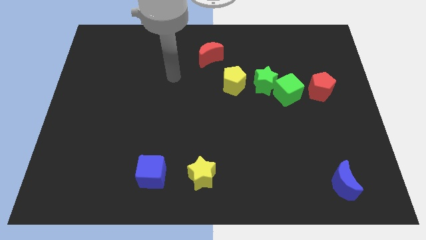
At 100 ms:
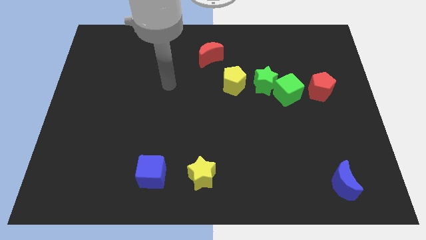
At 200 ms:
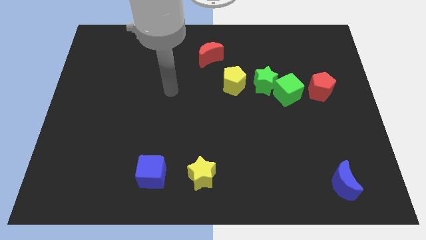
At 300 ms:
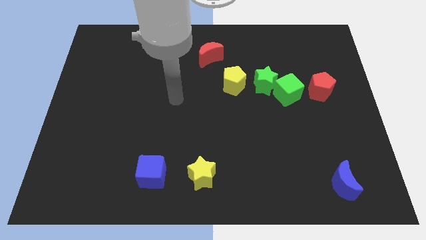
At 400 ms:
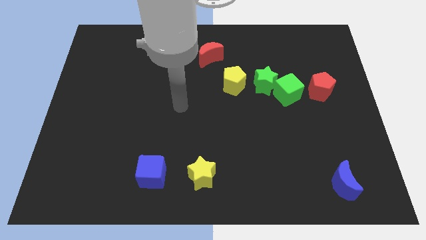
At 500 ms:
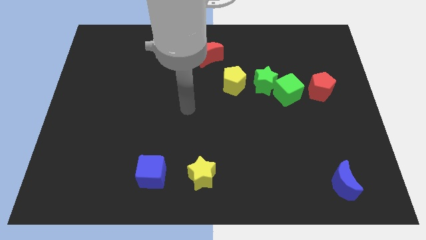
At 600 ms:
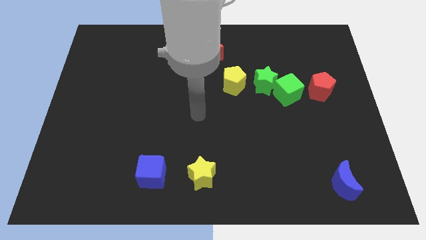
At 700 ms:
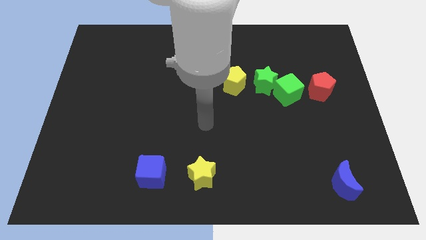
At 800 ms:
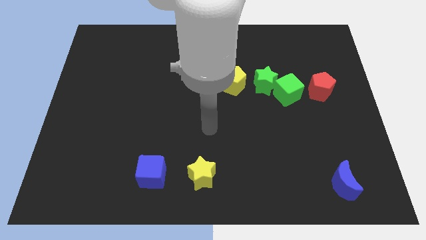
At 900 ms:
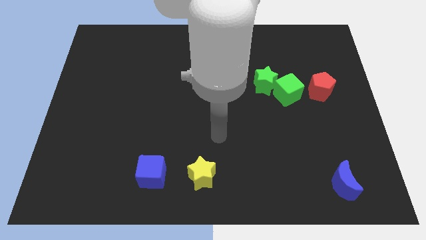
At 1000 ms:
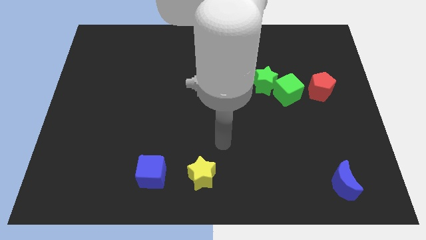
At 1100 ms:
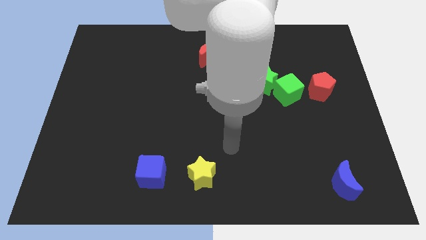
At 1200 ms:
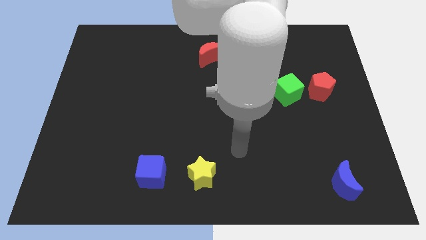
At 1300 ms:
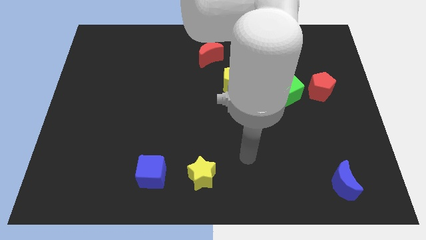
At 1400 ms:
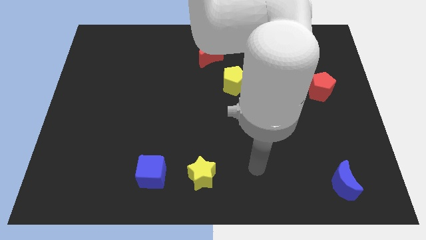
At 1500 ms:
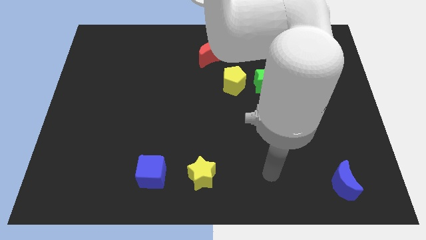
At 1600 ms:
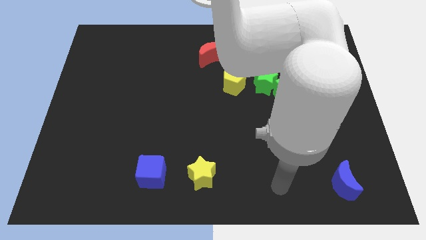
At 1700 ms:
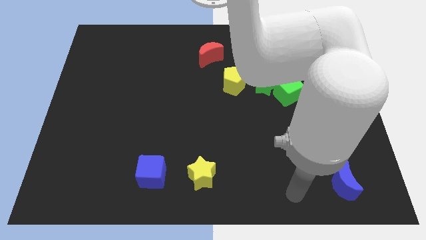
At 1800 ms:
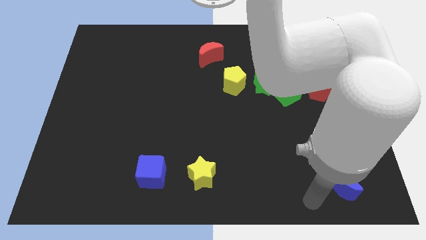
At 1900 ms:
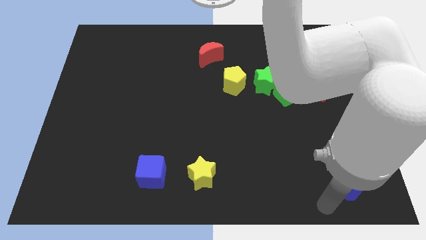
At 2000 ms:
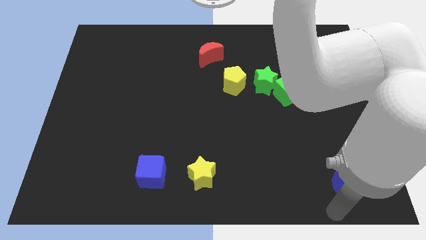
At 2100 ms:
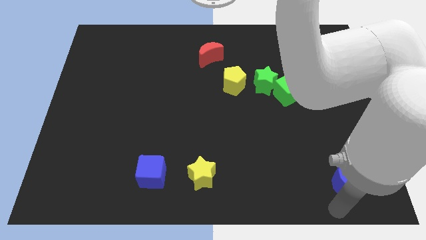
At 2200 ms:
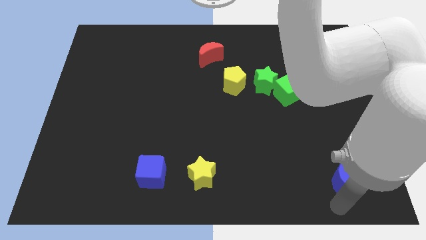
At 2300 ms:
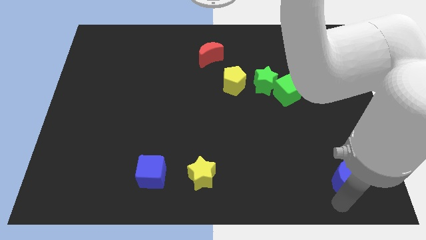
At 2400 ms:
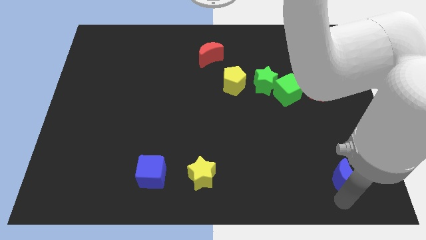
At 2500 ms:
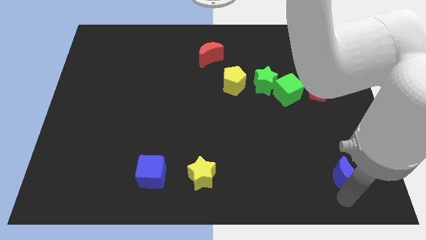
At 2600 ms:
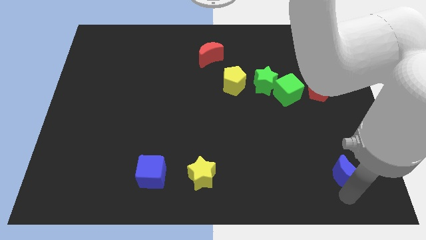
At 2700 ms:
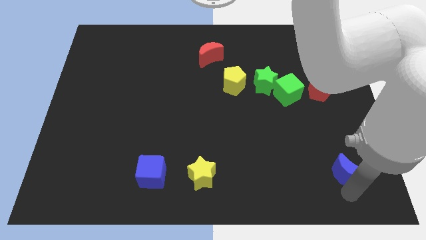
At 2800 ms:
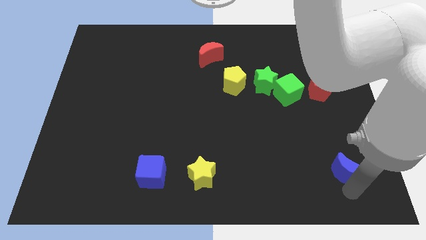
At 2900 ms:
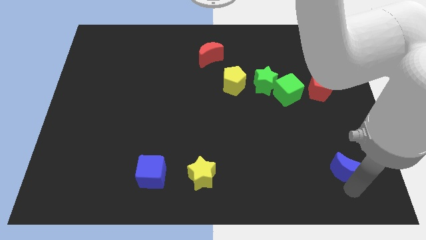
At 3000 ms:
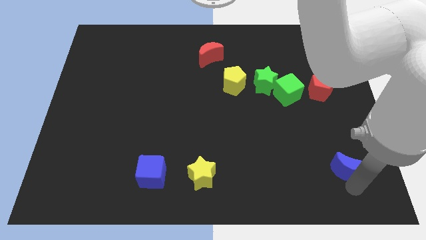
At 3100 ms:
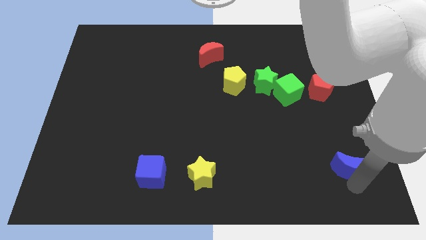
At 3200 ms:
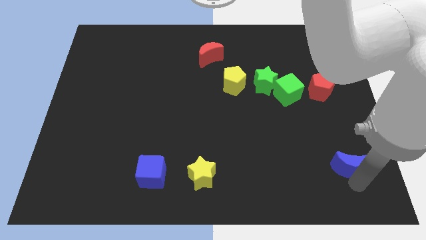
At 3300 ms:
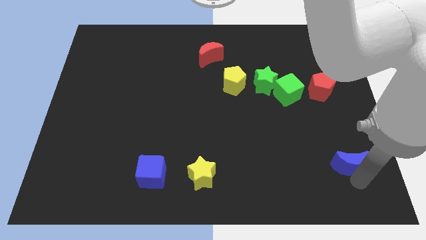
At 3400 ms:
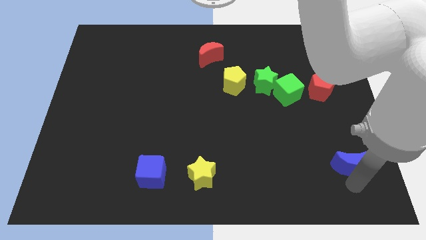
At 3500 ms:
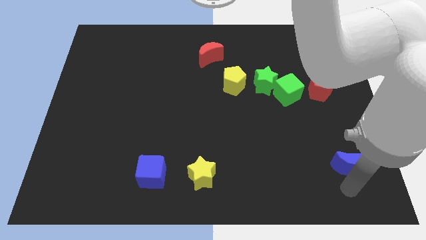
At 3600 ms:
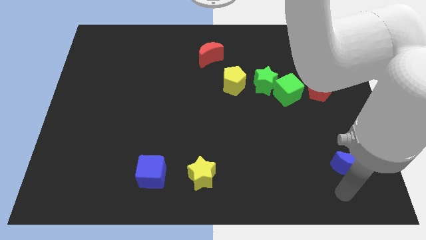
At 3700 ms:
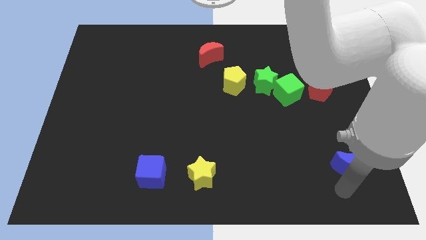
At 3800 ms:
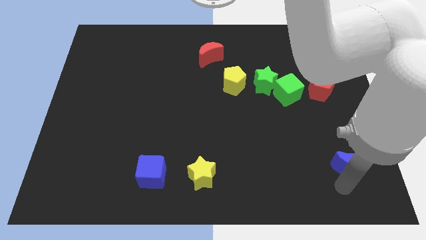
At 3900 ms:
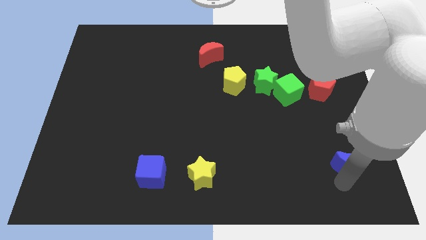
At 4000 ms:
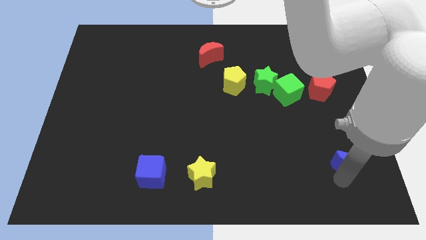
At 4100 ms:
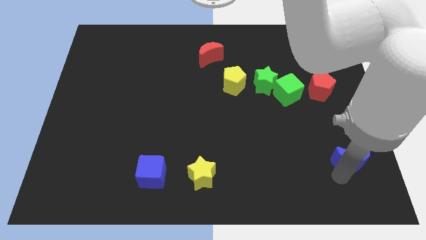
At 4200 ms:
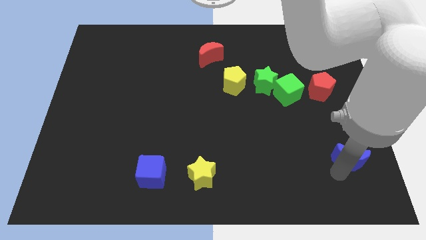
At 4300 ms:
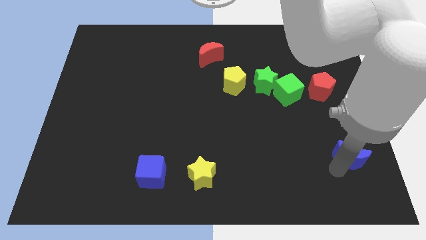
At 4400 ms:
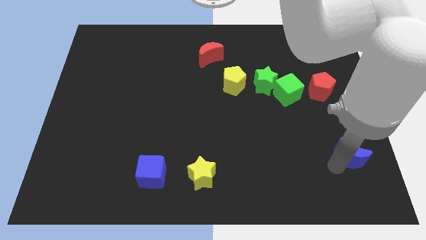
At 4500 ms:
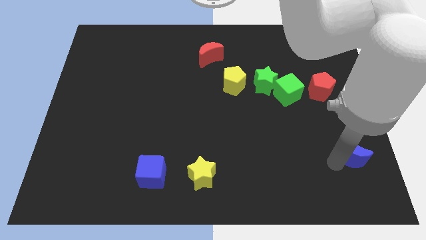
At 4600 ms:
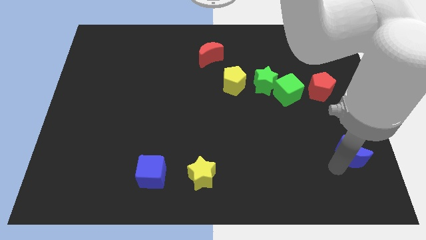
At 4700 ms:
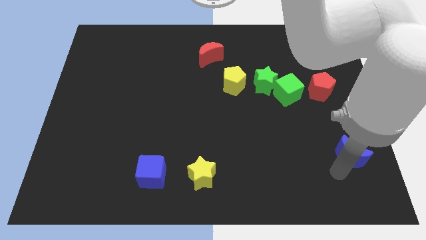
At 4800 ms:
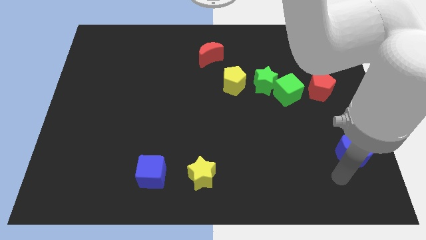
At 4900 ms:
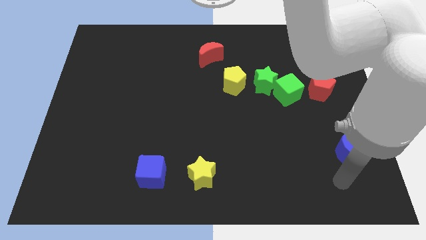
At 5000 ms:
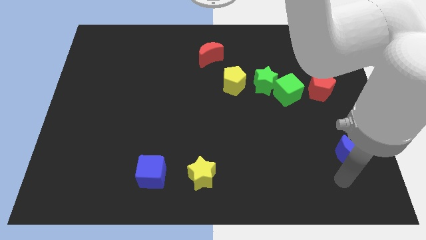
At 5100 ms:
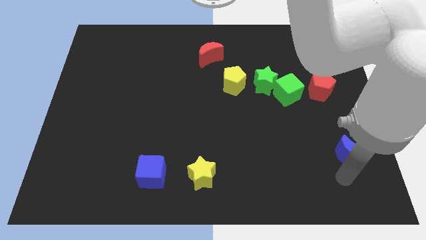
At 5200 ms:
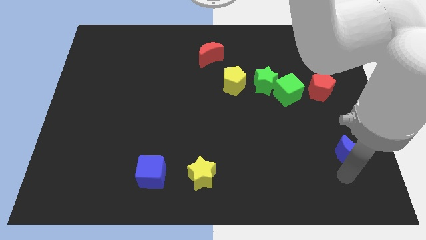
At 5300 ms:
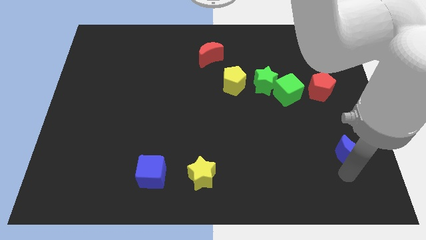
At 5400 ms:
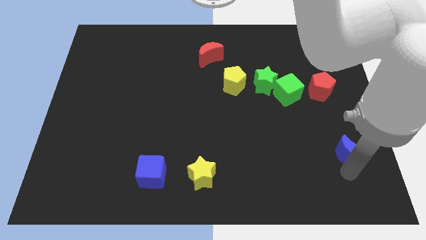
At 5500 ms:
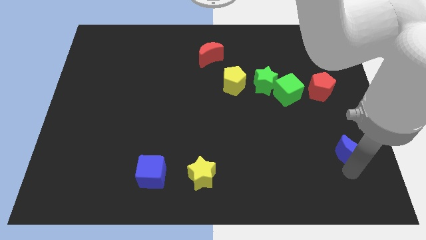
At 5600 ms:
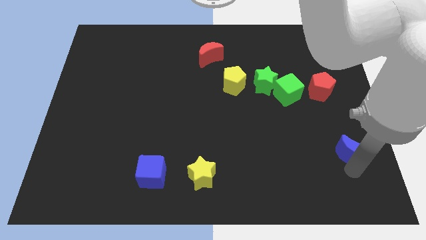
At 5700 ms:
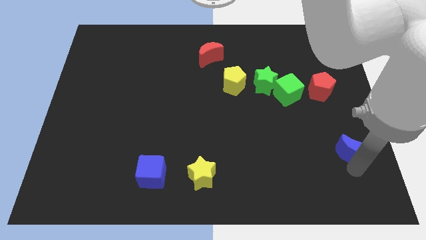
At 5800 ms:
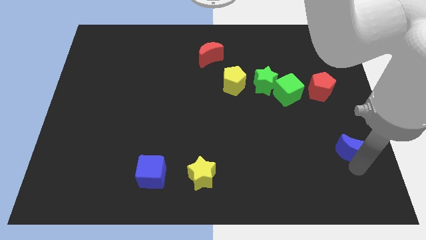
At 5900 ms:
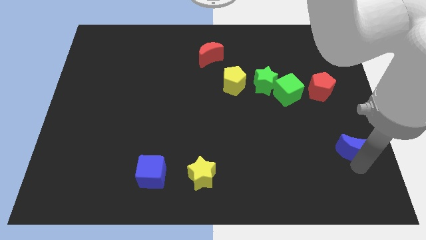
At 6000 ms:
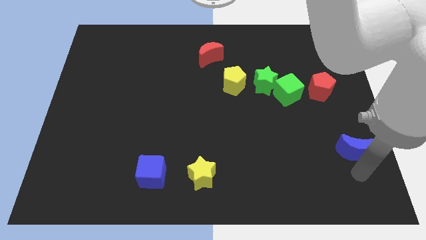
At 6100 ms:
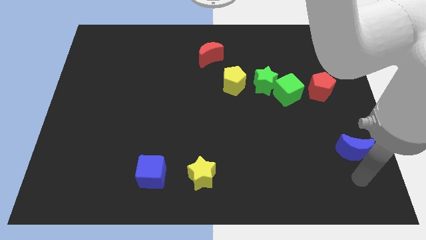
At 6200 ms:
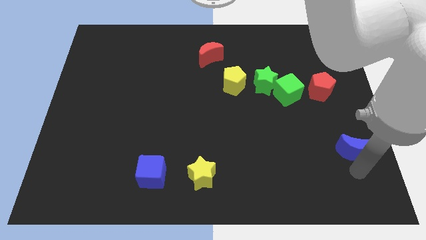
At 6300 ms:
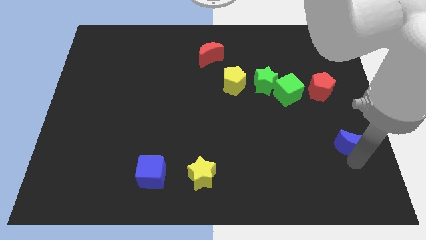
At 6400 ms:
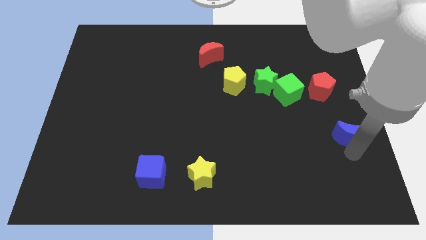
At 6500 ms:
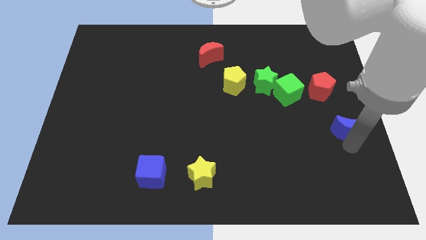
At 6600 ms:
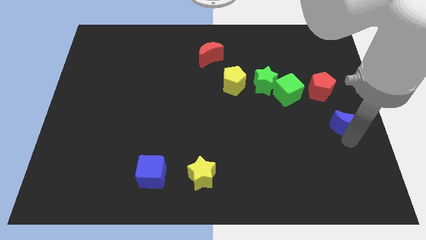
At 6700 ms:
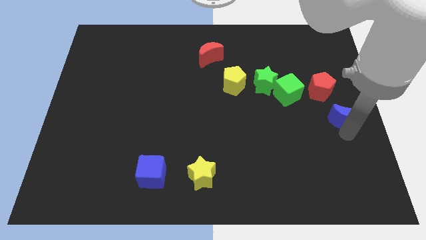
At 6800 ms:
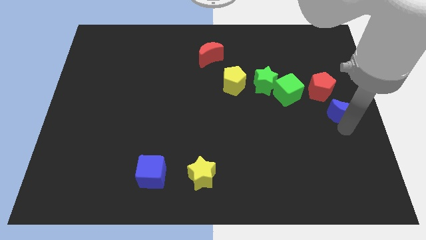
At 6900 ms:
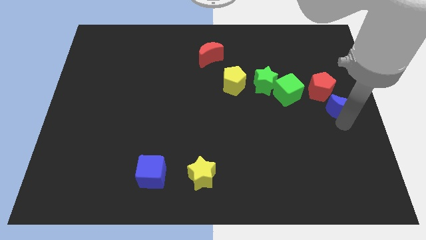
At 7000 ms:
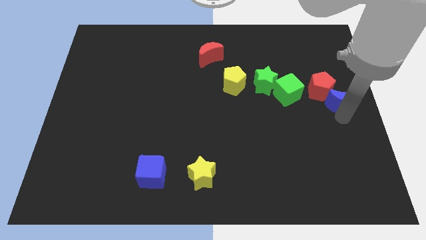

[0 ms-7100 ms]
push the blue moon up

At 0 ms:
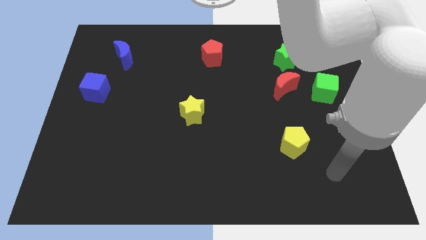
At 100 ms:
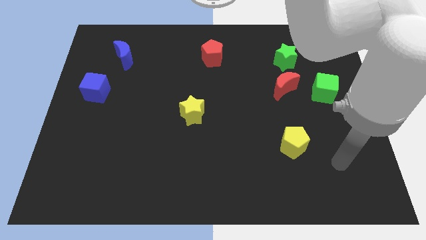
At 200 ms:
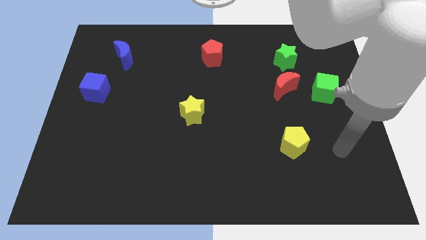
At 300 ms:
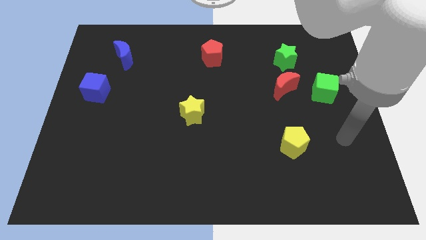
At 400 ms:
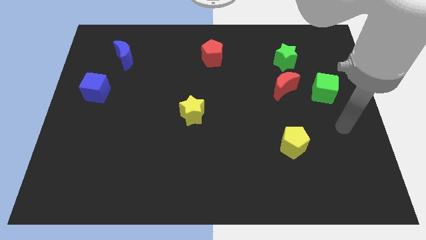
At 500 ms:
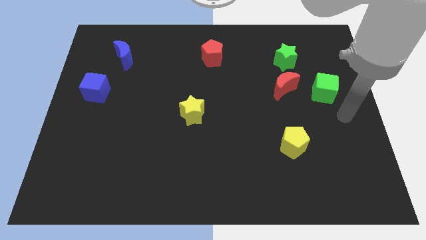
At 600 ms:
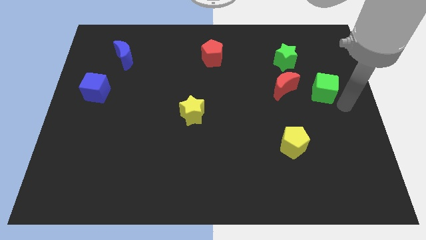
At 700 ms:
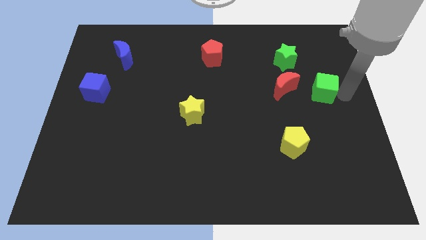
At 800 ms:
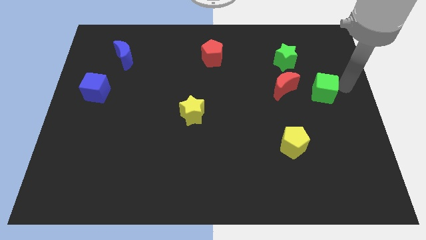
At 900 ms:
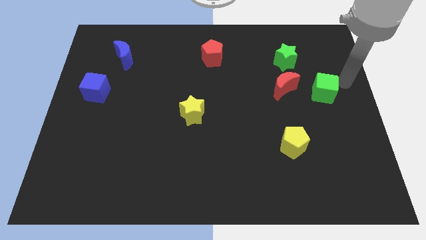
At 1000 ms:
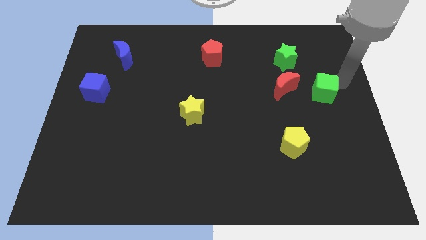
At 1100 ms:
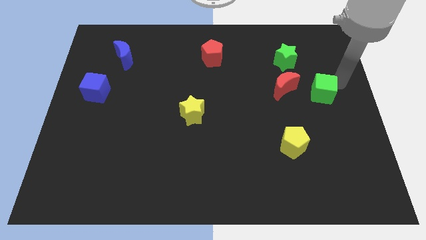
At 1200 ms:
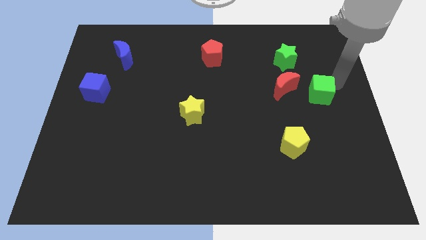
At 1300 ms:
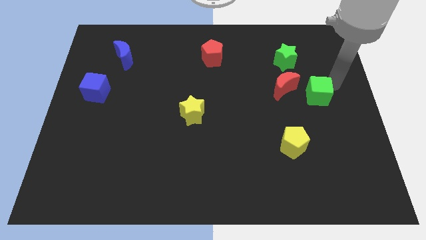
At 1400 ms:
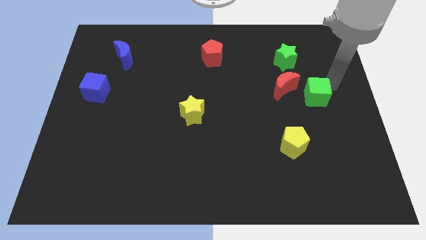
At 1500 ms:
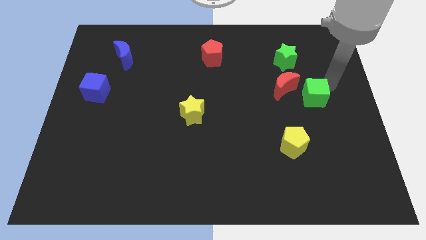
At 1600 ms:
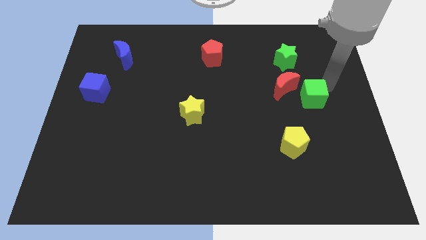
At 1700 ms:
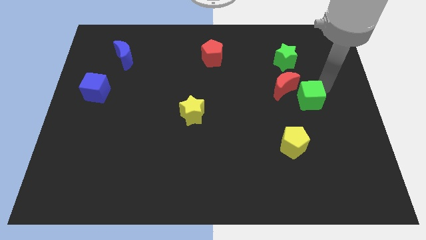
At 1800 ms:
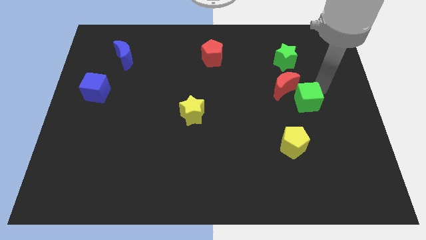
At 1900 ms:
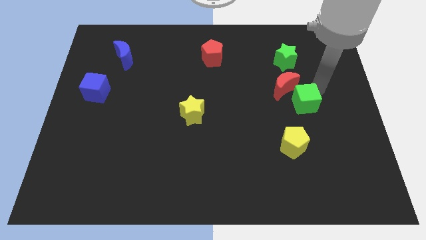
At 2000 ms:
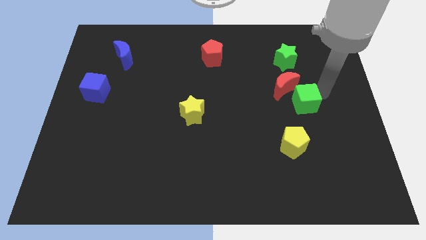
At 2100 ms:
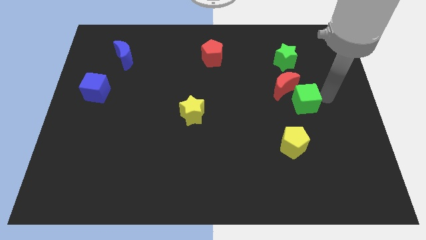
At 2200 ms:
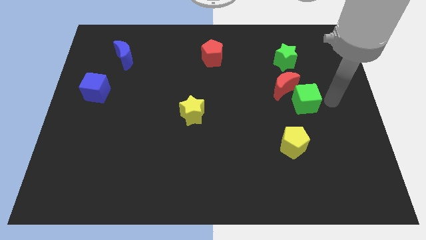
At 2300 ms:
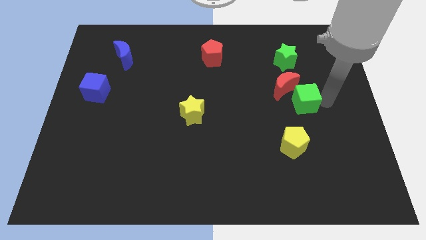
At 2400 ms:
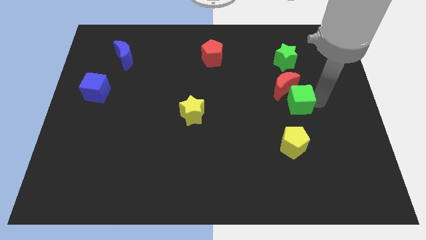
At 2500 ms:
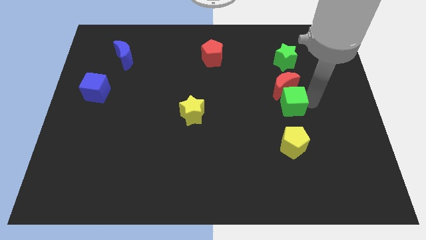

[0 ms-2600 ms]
push the green cube left somewhat
